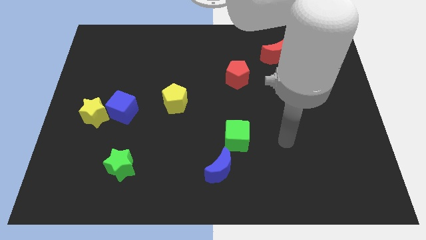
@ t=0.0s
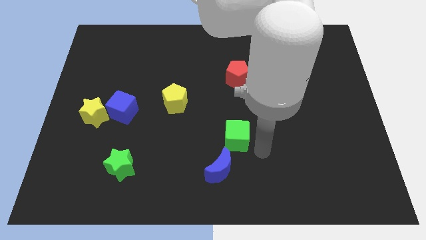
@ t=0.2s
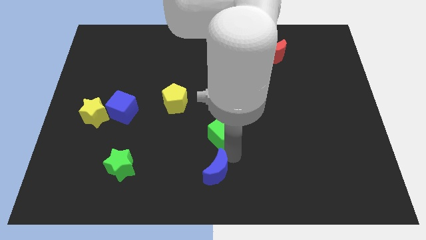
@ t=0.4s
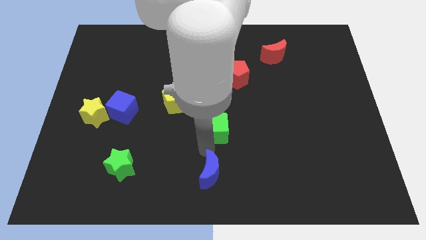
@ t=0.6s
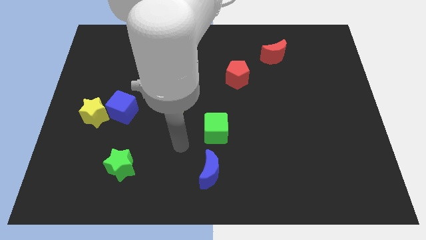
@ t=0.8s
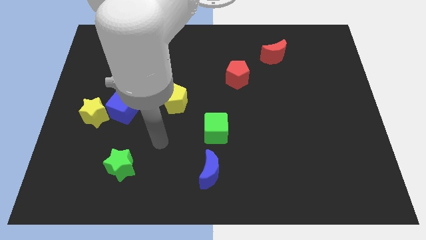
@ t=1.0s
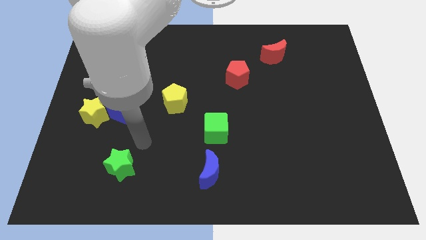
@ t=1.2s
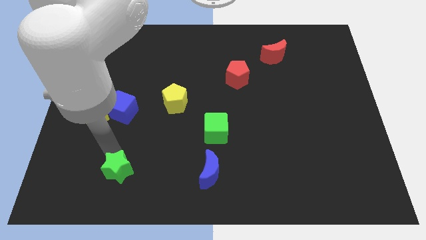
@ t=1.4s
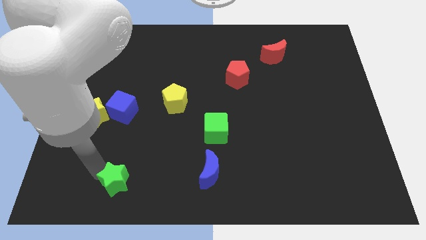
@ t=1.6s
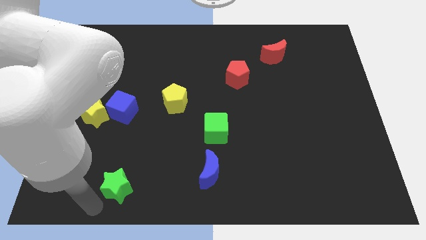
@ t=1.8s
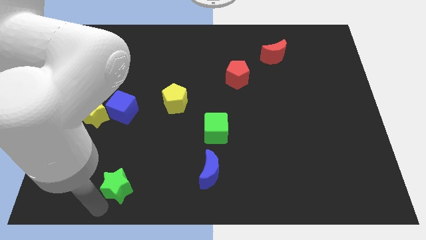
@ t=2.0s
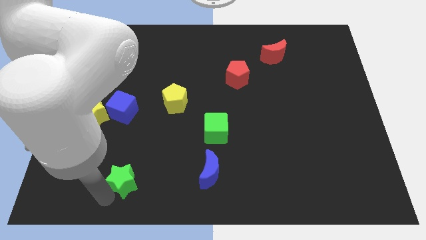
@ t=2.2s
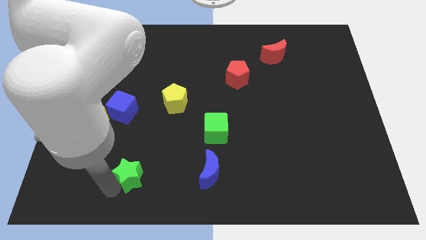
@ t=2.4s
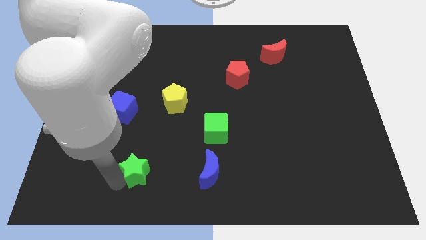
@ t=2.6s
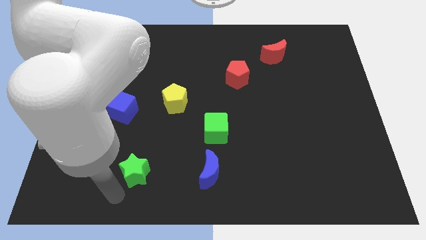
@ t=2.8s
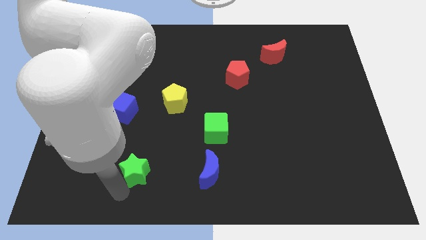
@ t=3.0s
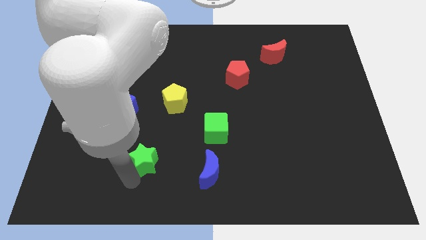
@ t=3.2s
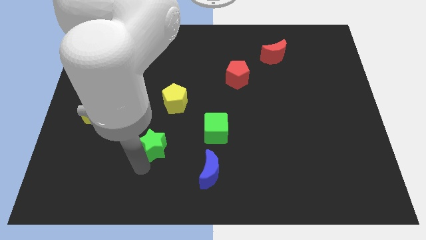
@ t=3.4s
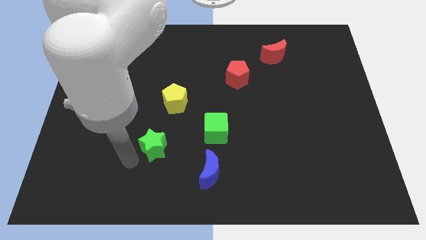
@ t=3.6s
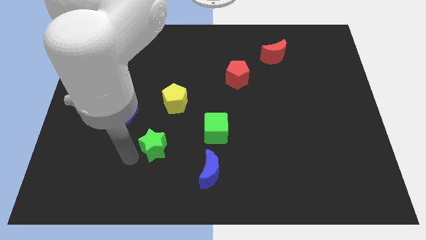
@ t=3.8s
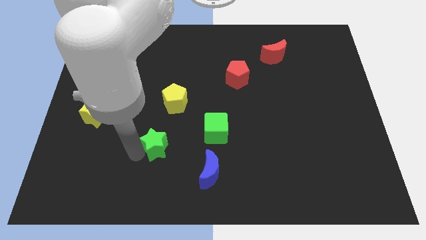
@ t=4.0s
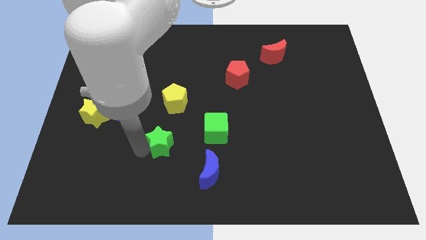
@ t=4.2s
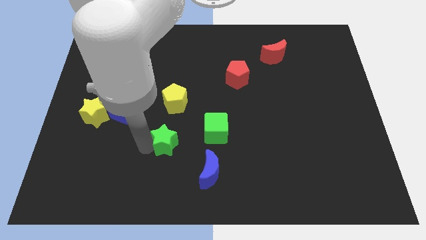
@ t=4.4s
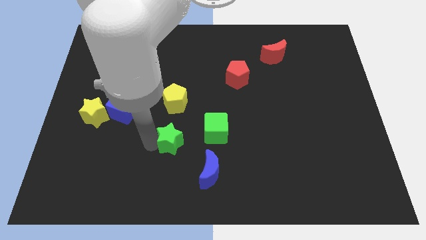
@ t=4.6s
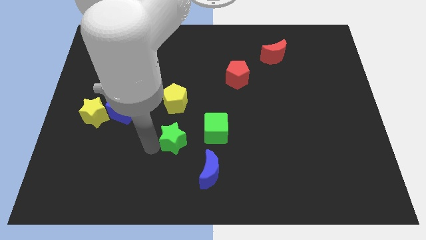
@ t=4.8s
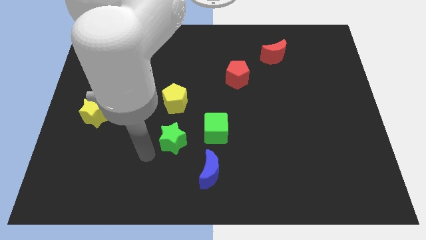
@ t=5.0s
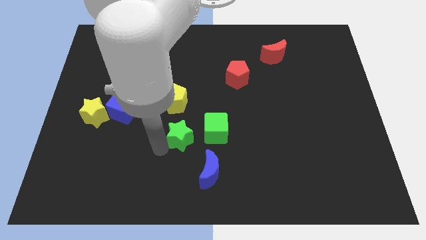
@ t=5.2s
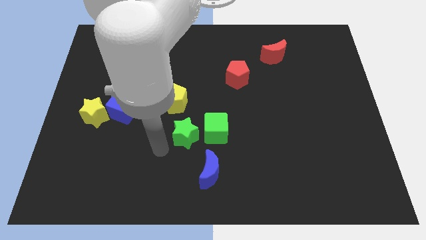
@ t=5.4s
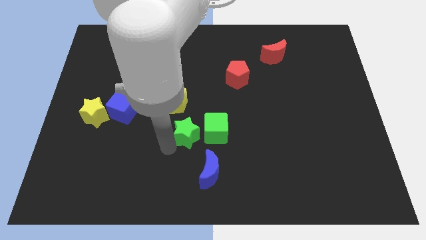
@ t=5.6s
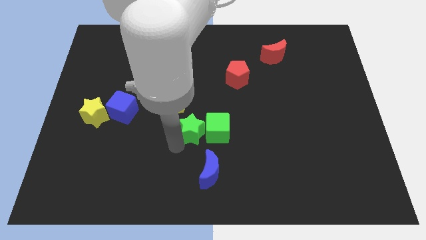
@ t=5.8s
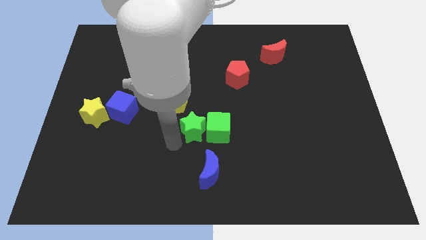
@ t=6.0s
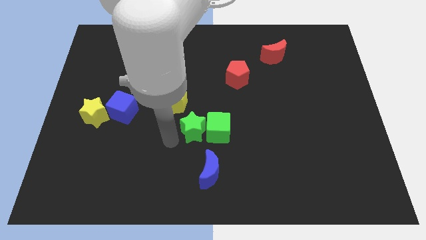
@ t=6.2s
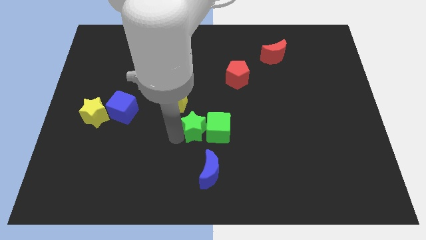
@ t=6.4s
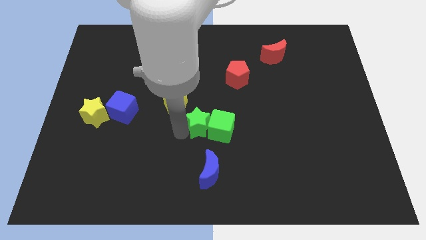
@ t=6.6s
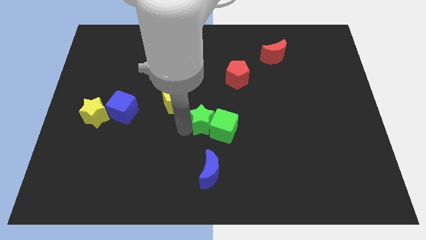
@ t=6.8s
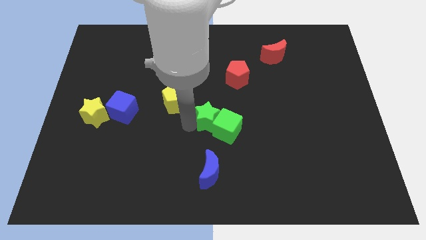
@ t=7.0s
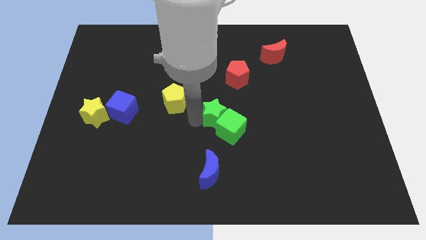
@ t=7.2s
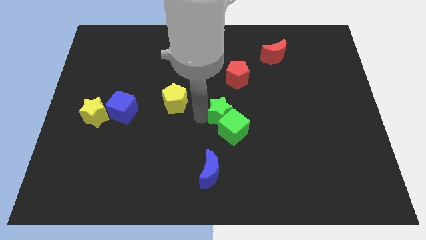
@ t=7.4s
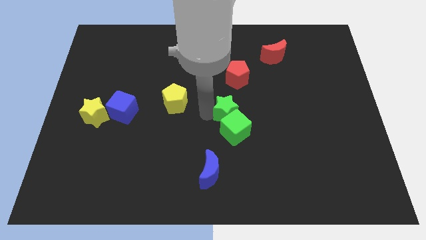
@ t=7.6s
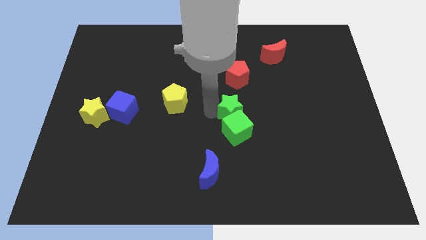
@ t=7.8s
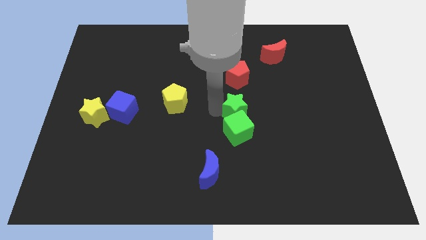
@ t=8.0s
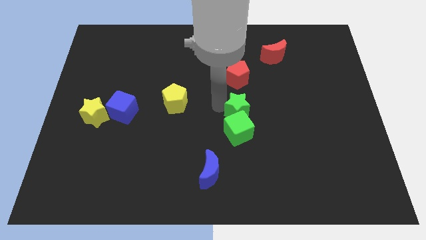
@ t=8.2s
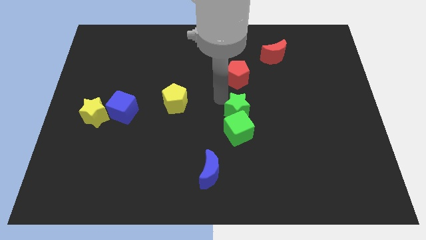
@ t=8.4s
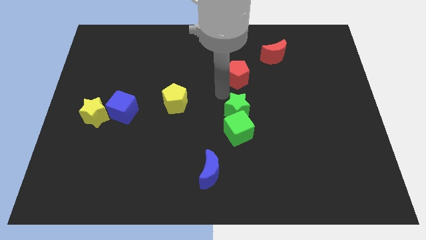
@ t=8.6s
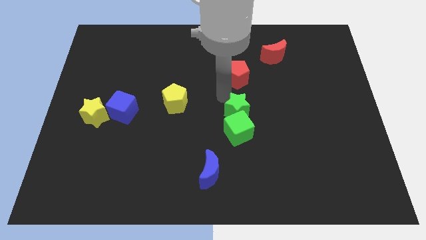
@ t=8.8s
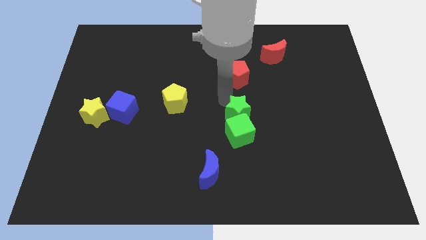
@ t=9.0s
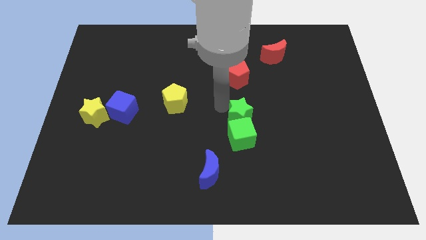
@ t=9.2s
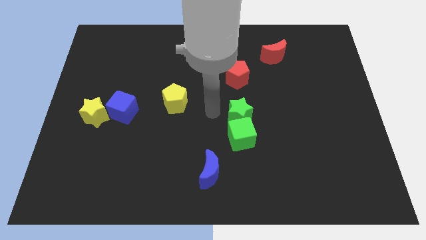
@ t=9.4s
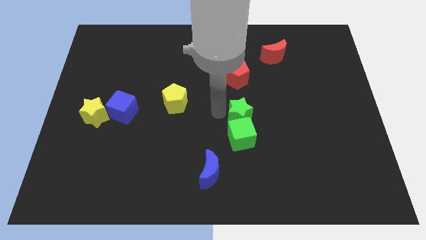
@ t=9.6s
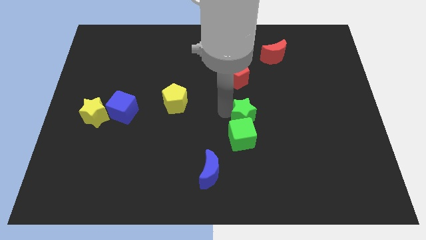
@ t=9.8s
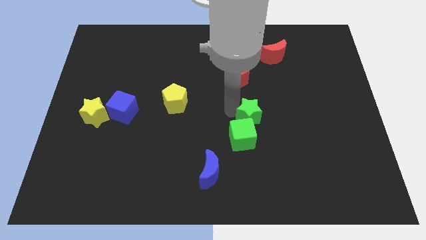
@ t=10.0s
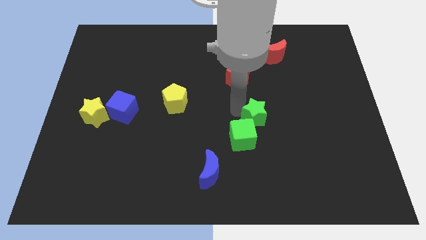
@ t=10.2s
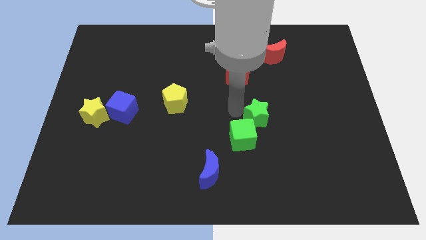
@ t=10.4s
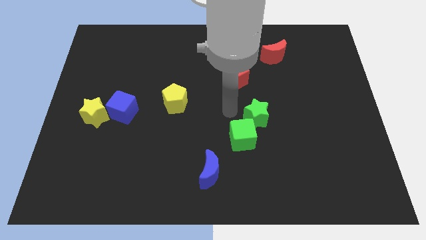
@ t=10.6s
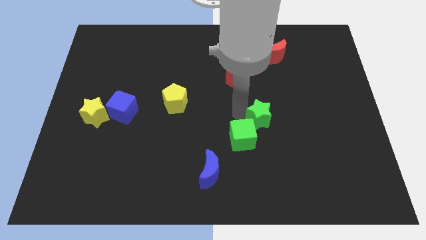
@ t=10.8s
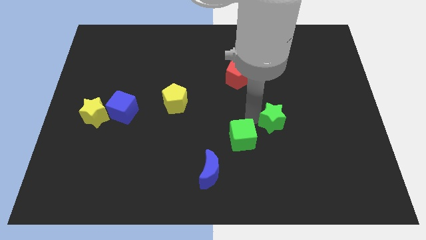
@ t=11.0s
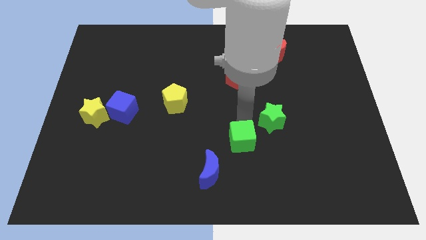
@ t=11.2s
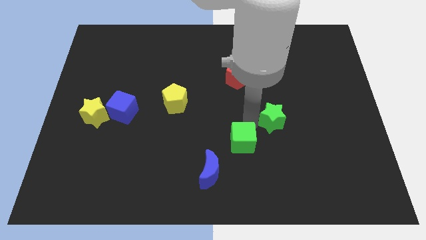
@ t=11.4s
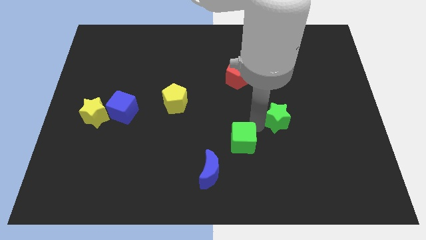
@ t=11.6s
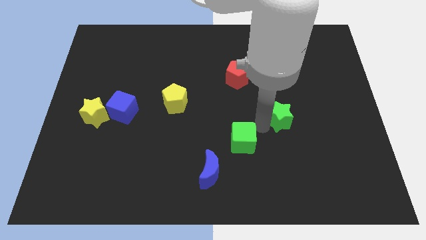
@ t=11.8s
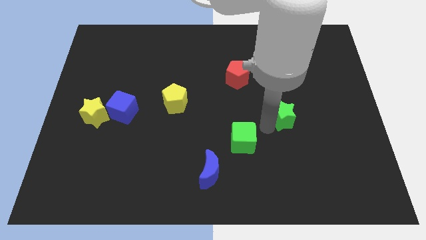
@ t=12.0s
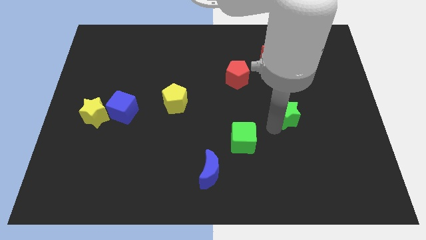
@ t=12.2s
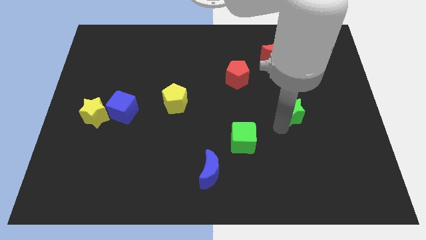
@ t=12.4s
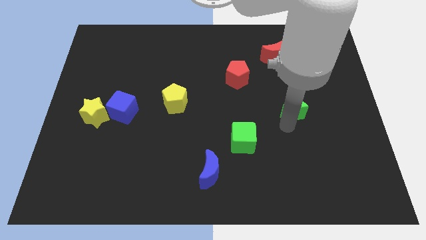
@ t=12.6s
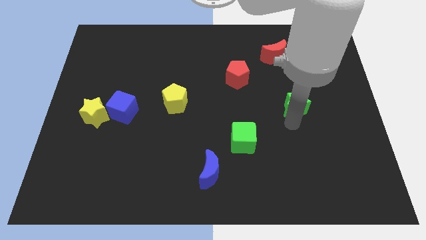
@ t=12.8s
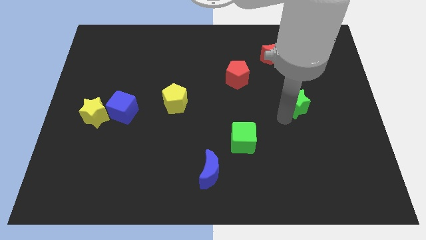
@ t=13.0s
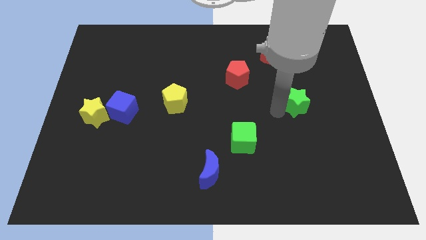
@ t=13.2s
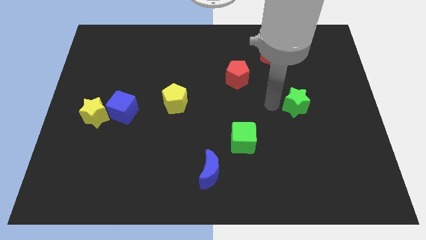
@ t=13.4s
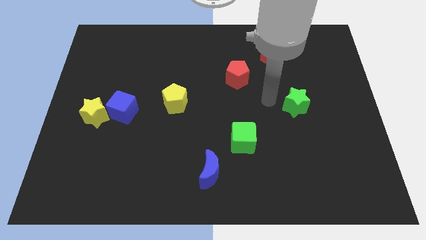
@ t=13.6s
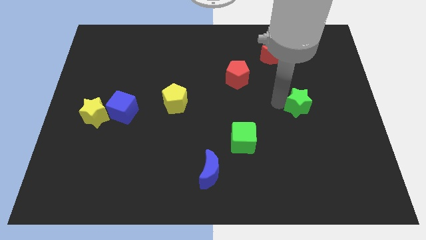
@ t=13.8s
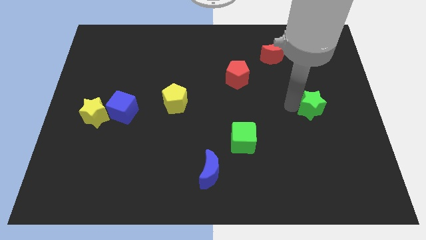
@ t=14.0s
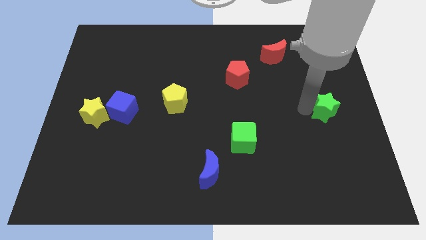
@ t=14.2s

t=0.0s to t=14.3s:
push the green star to the center right

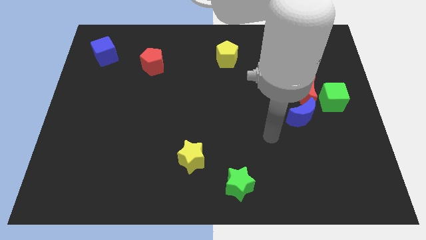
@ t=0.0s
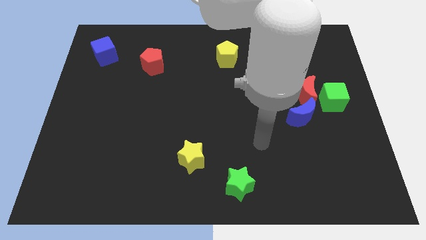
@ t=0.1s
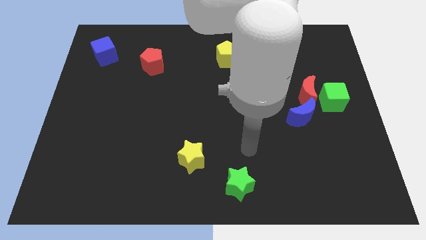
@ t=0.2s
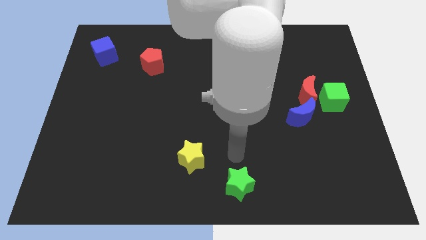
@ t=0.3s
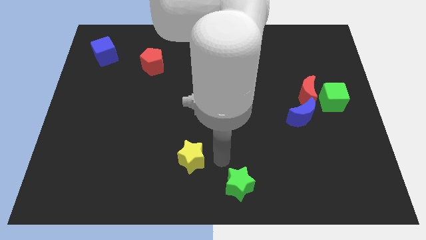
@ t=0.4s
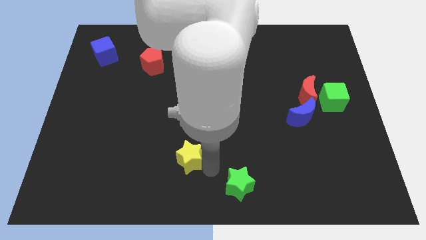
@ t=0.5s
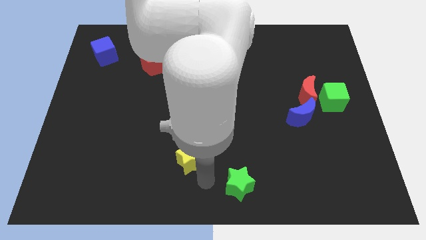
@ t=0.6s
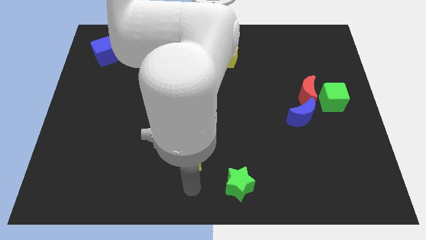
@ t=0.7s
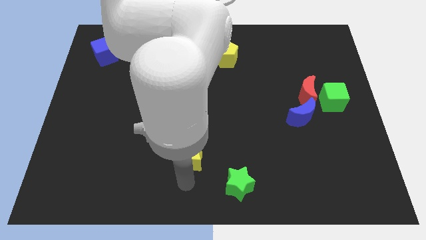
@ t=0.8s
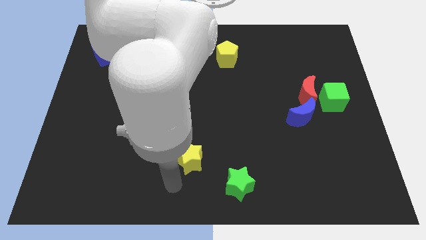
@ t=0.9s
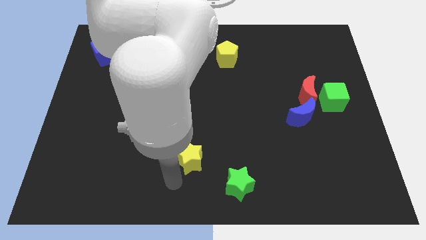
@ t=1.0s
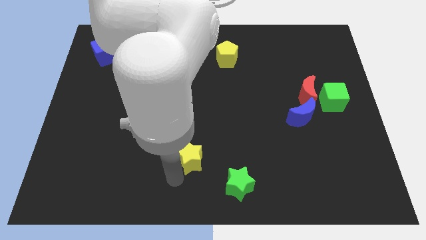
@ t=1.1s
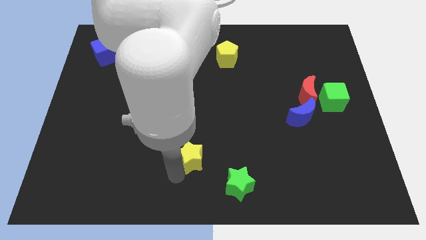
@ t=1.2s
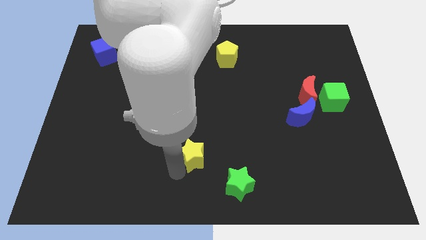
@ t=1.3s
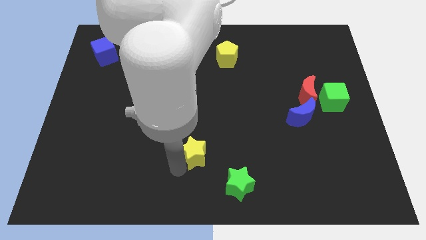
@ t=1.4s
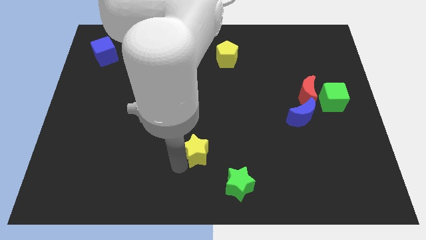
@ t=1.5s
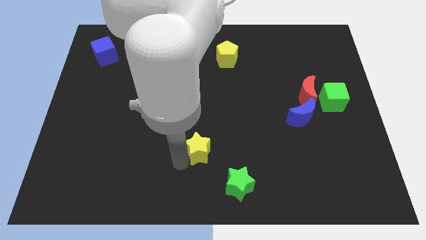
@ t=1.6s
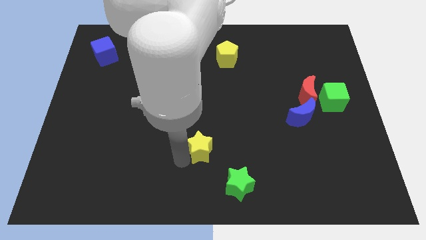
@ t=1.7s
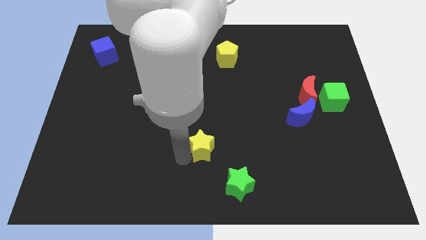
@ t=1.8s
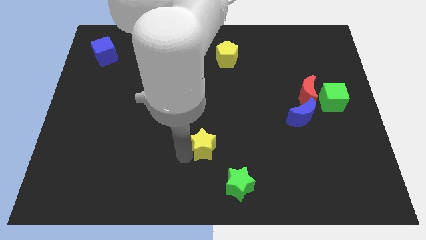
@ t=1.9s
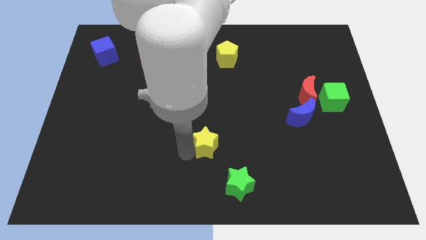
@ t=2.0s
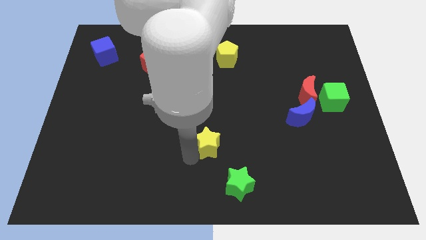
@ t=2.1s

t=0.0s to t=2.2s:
slide the yellow star to the middle
